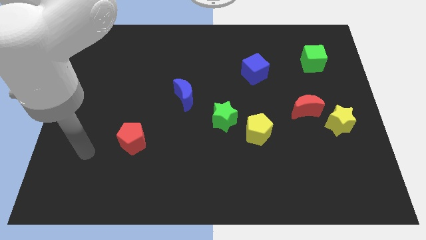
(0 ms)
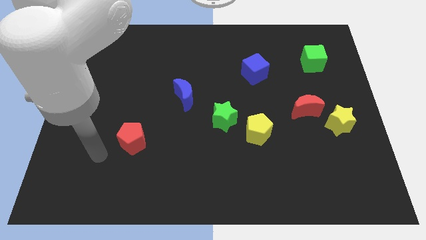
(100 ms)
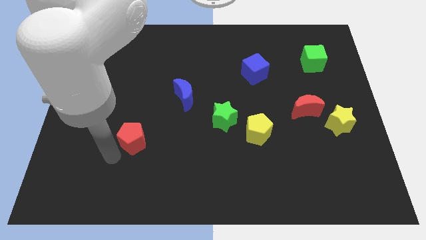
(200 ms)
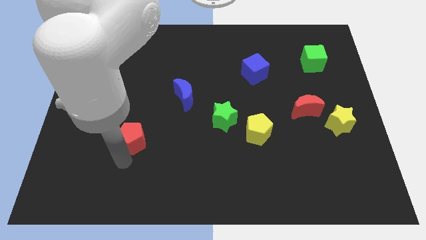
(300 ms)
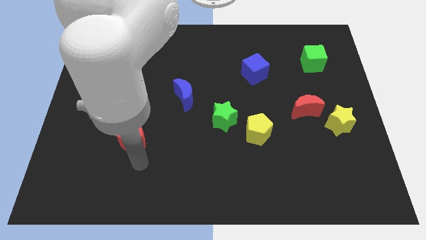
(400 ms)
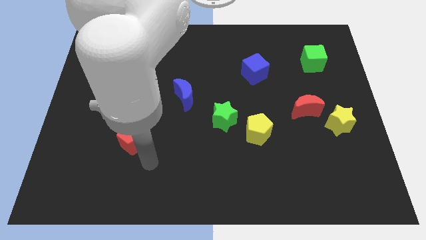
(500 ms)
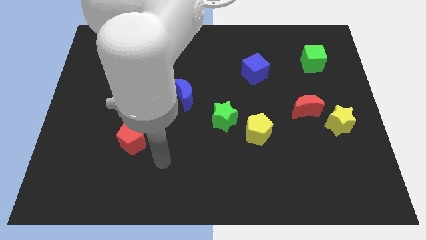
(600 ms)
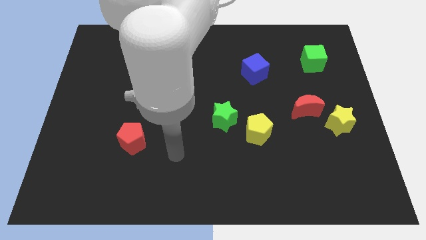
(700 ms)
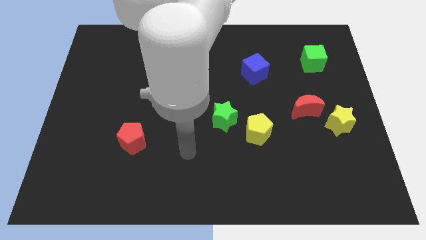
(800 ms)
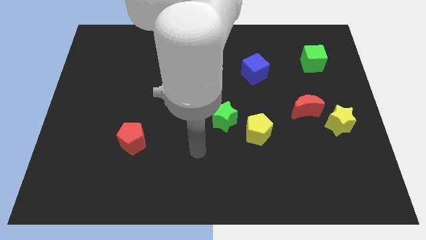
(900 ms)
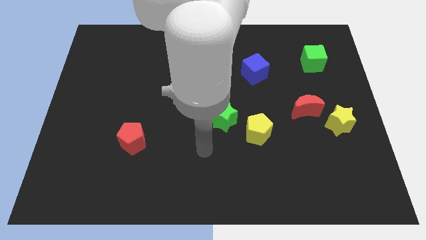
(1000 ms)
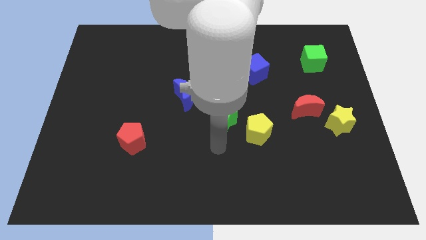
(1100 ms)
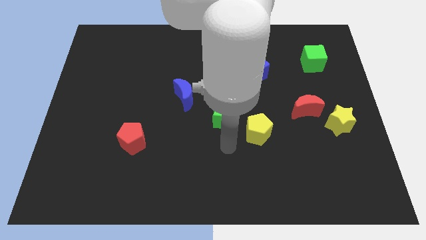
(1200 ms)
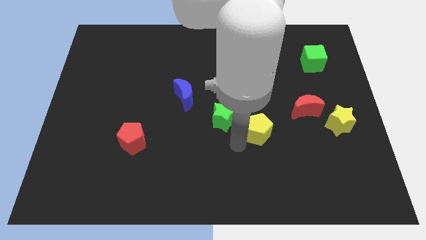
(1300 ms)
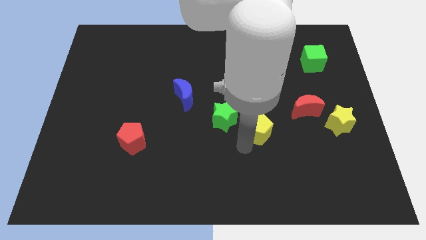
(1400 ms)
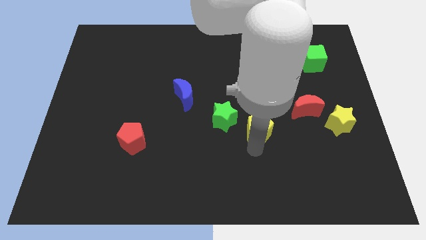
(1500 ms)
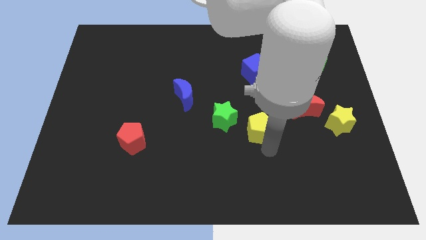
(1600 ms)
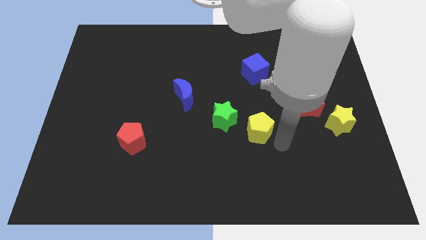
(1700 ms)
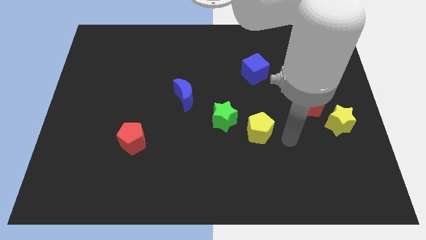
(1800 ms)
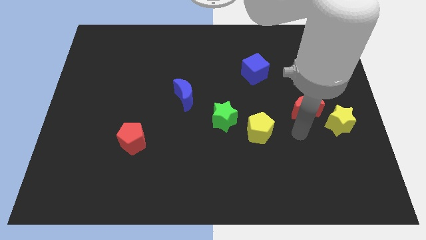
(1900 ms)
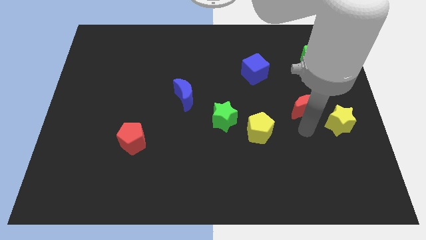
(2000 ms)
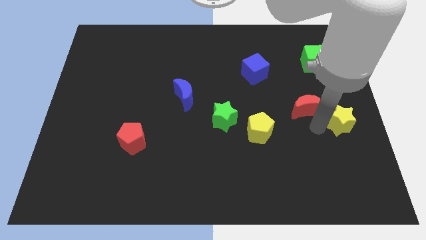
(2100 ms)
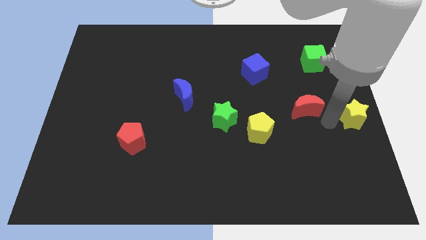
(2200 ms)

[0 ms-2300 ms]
pull the red moon apart from the yellow star

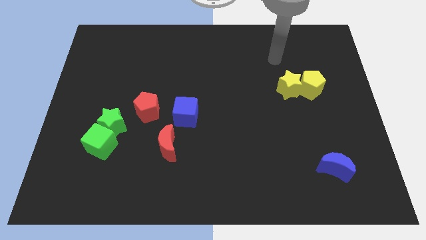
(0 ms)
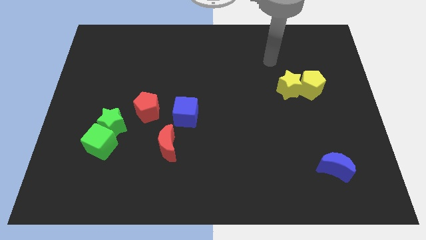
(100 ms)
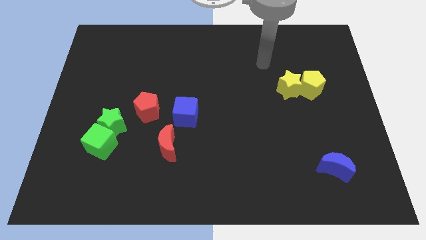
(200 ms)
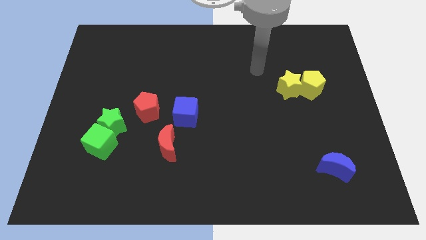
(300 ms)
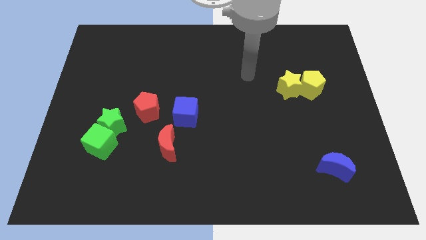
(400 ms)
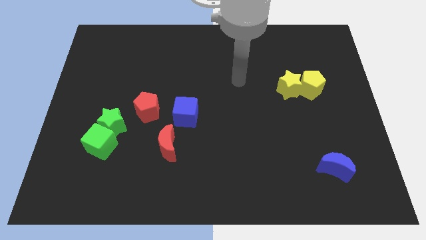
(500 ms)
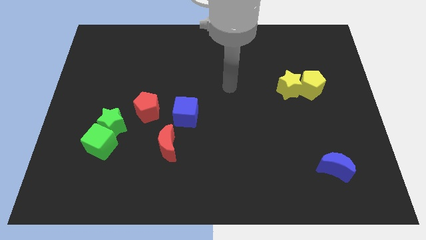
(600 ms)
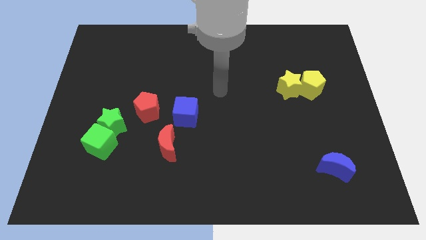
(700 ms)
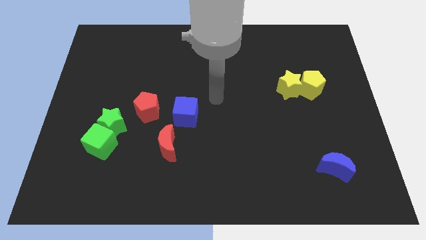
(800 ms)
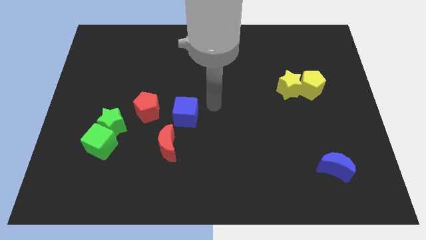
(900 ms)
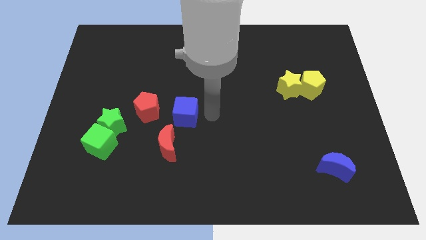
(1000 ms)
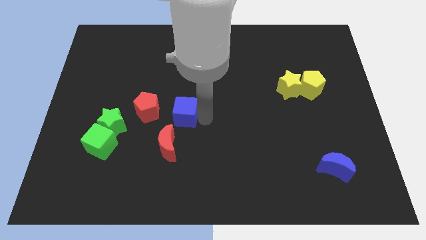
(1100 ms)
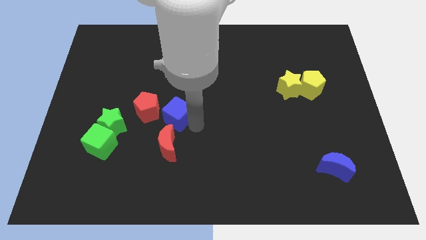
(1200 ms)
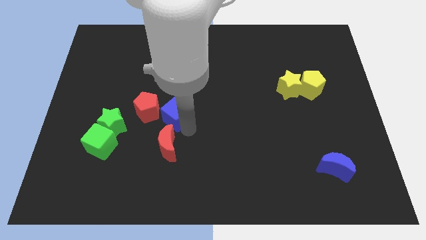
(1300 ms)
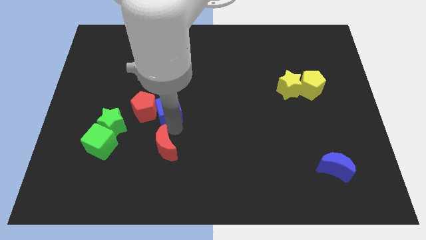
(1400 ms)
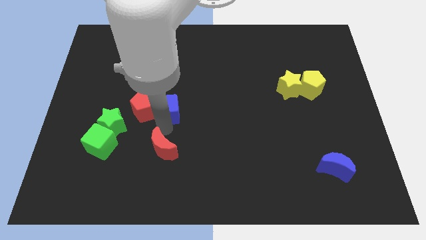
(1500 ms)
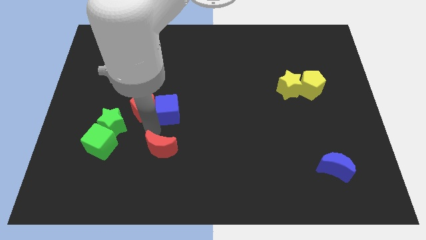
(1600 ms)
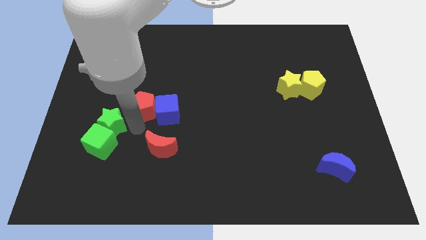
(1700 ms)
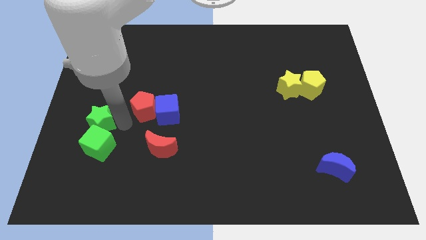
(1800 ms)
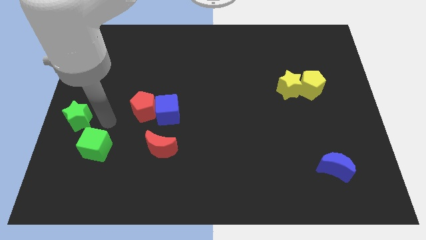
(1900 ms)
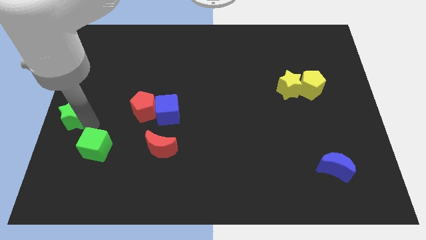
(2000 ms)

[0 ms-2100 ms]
separate the green cube from the green star

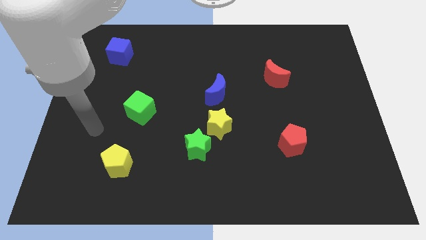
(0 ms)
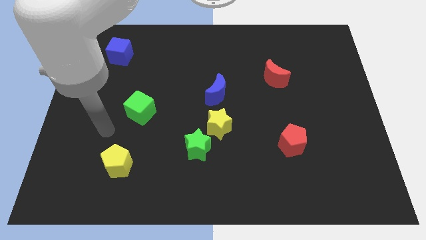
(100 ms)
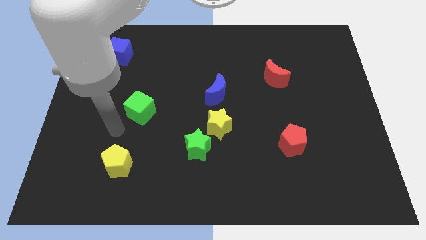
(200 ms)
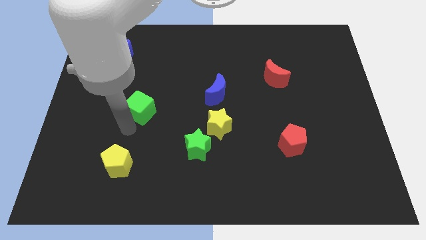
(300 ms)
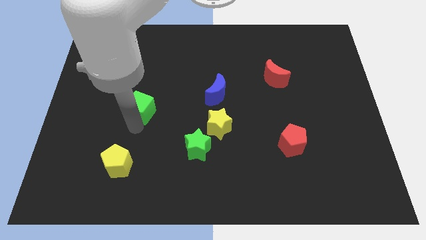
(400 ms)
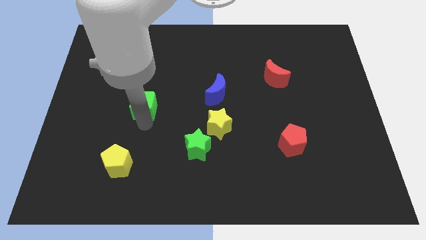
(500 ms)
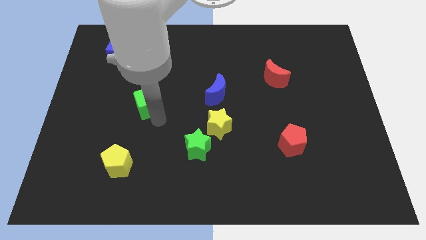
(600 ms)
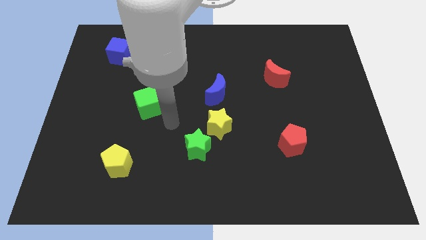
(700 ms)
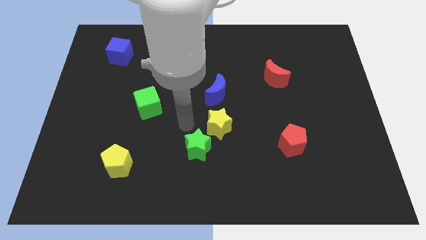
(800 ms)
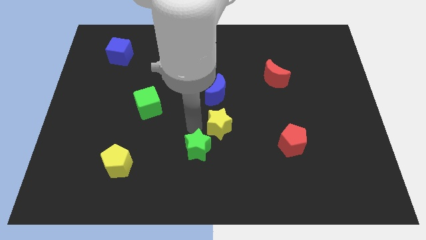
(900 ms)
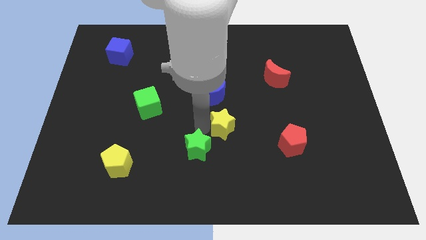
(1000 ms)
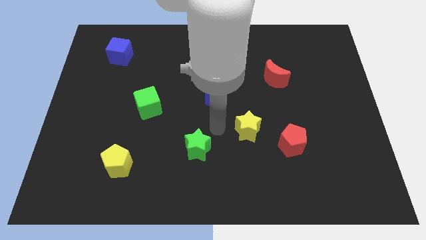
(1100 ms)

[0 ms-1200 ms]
move the green star away from the yellow star

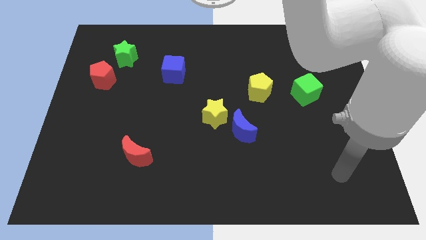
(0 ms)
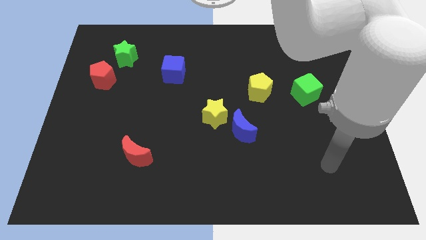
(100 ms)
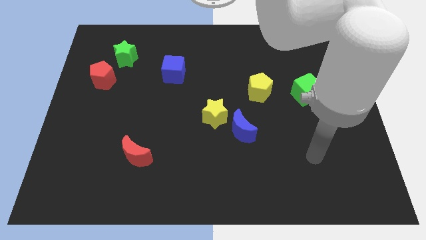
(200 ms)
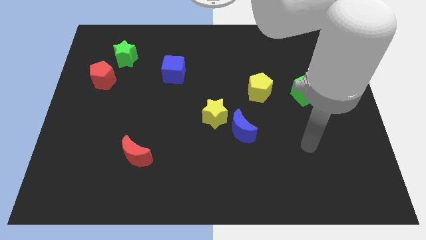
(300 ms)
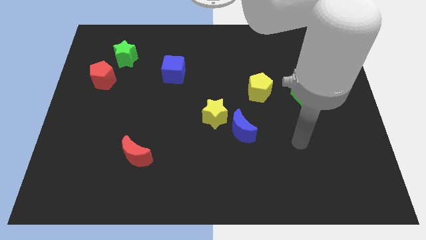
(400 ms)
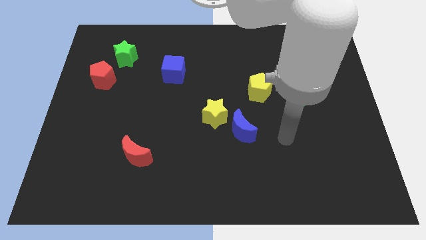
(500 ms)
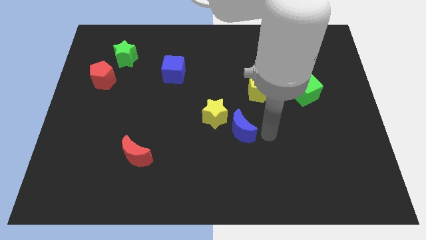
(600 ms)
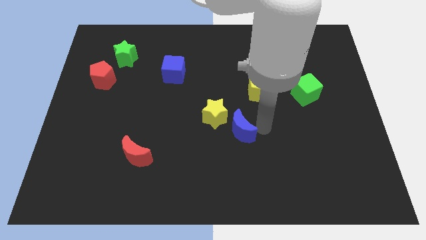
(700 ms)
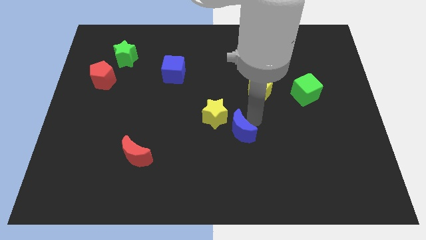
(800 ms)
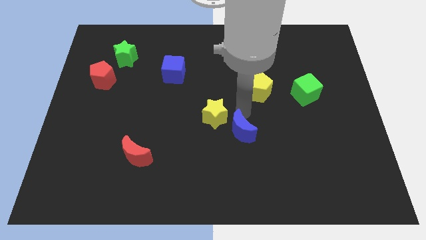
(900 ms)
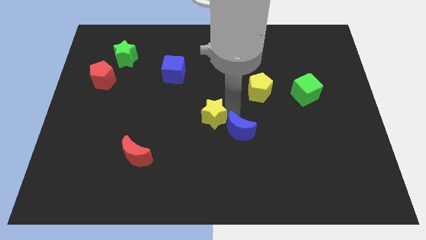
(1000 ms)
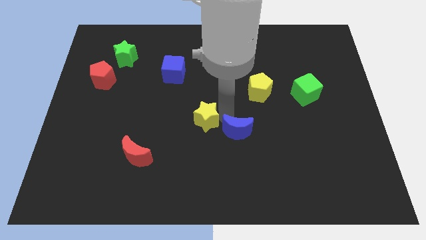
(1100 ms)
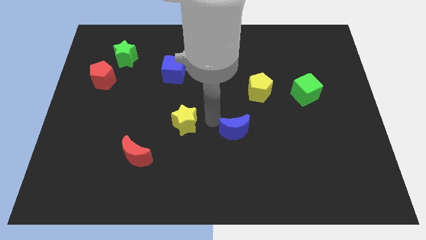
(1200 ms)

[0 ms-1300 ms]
move the blue moon away from the yellow star

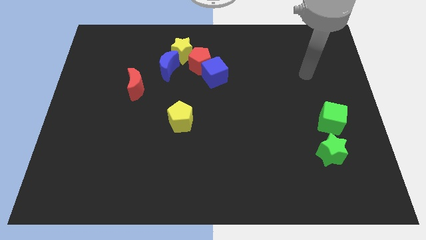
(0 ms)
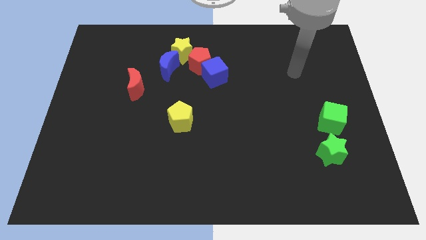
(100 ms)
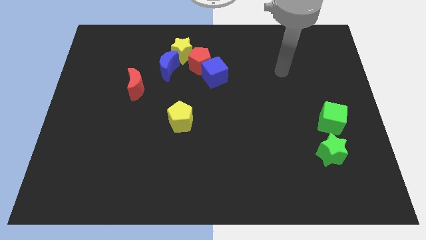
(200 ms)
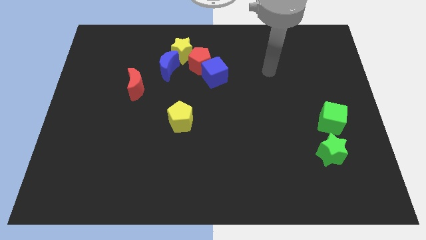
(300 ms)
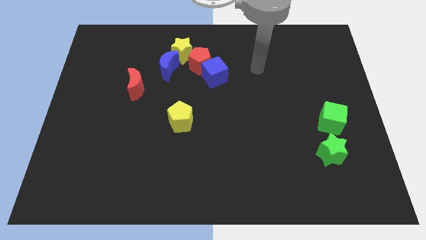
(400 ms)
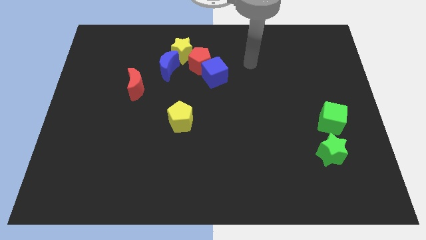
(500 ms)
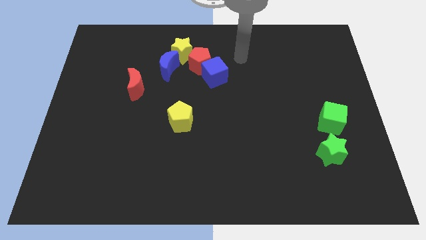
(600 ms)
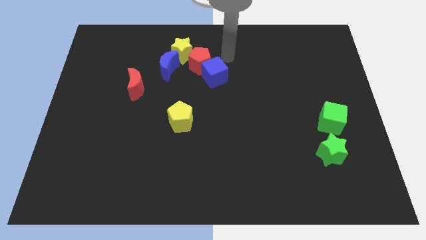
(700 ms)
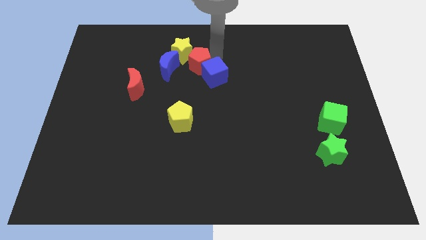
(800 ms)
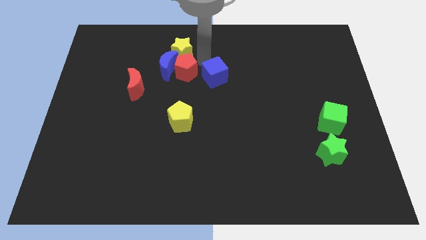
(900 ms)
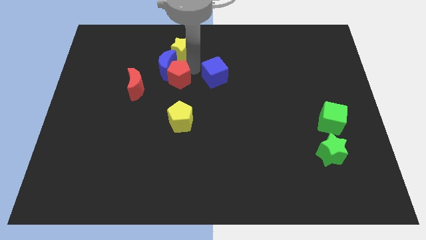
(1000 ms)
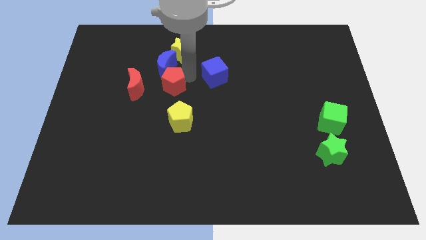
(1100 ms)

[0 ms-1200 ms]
move the blue cube away from the red pentagon

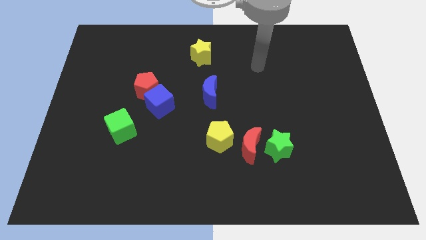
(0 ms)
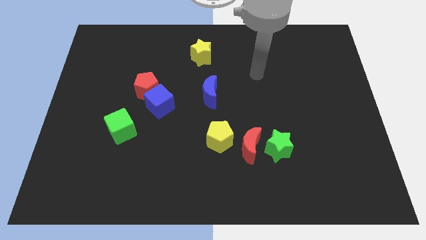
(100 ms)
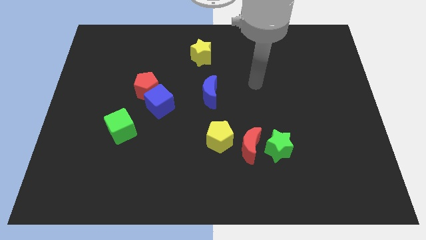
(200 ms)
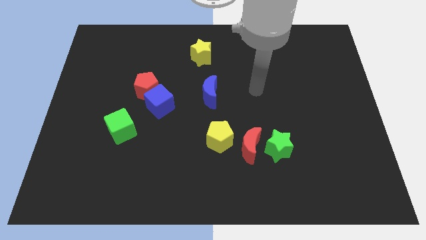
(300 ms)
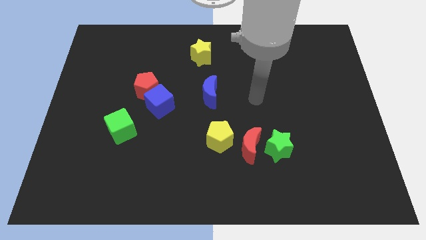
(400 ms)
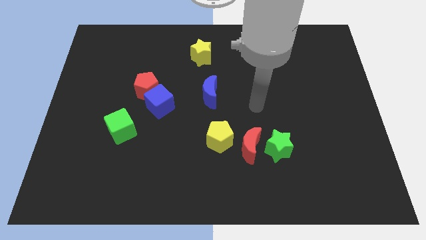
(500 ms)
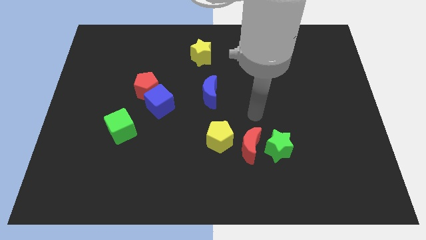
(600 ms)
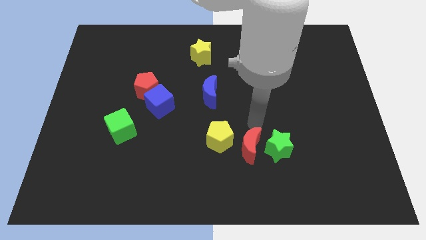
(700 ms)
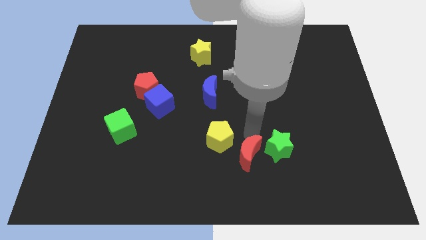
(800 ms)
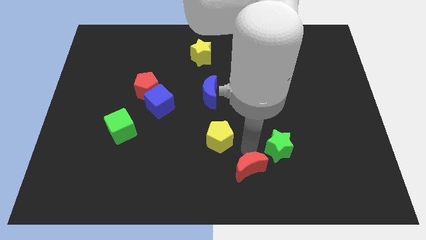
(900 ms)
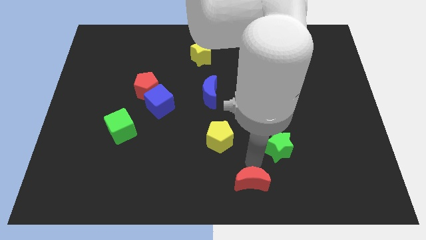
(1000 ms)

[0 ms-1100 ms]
pull the green star apart from the red moon
